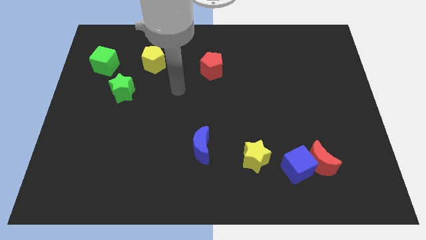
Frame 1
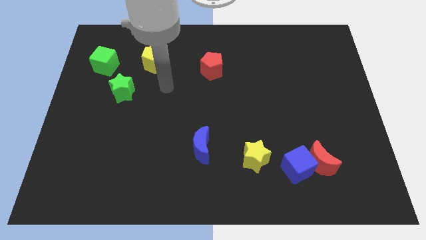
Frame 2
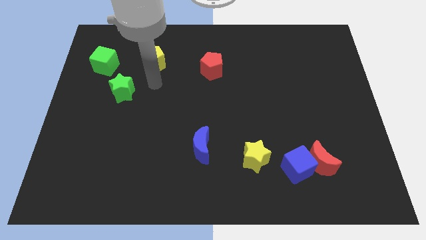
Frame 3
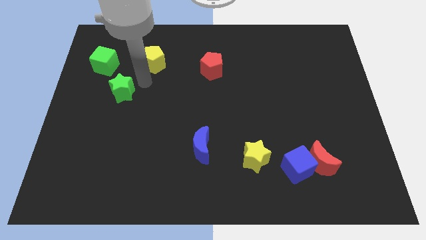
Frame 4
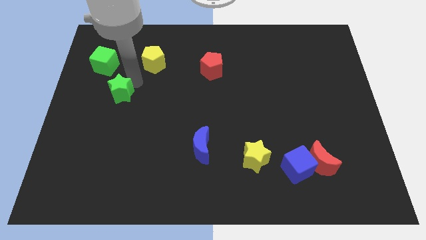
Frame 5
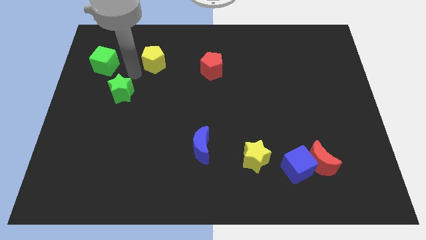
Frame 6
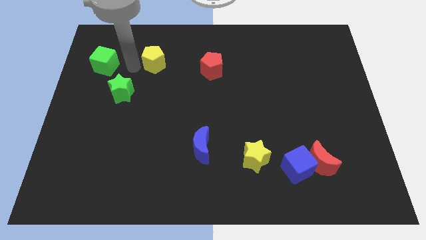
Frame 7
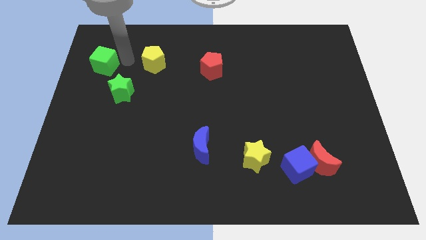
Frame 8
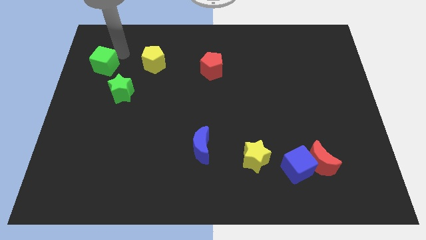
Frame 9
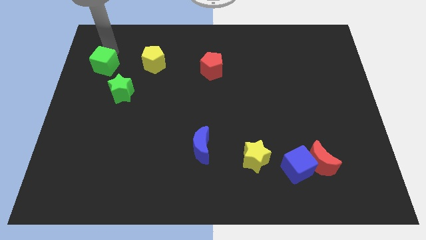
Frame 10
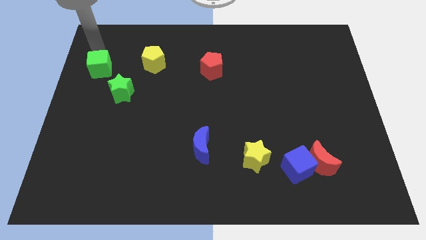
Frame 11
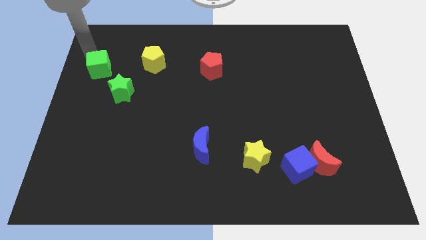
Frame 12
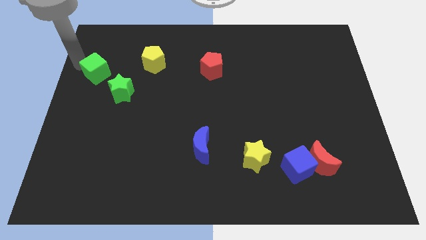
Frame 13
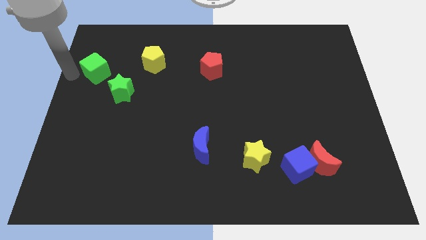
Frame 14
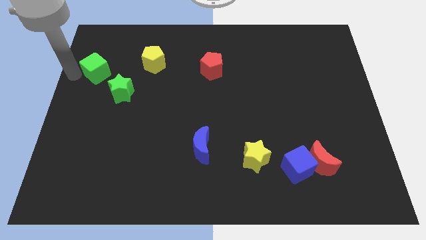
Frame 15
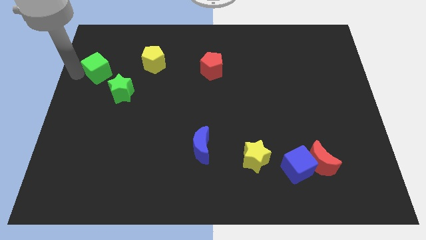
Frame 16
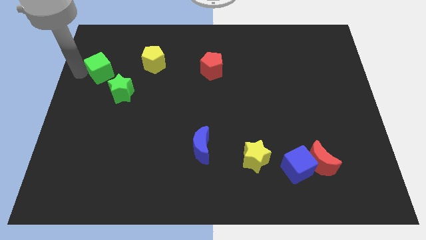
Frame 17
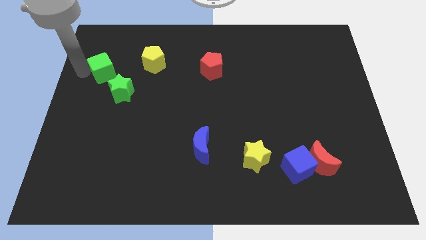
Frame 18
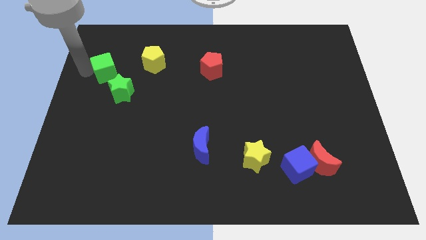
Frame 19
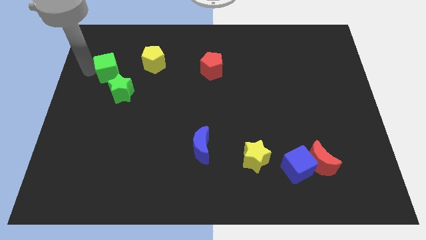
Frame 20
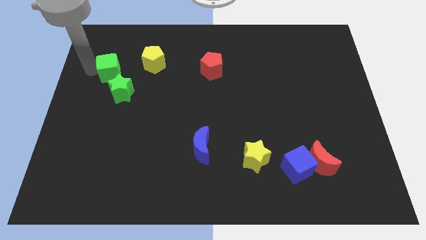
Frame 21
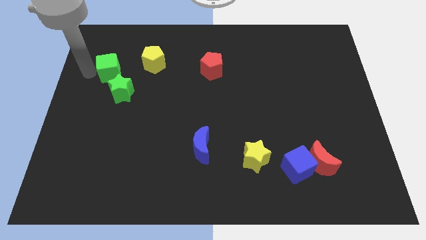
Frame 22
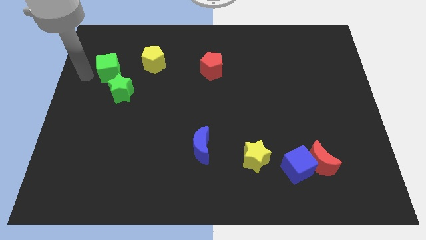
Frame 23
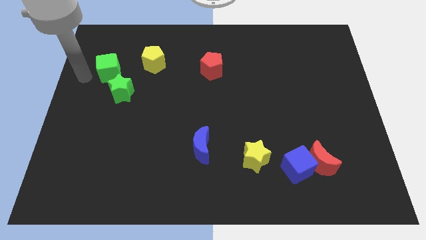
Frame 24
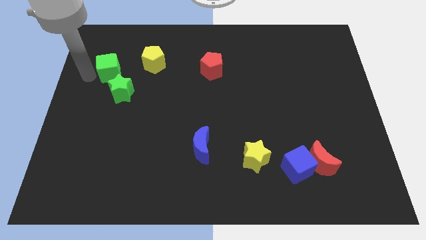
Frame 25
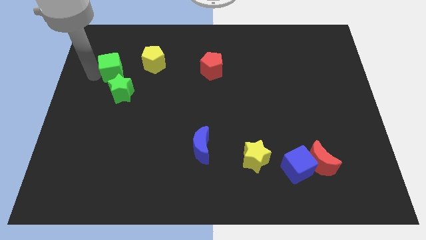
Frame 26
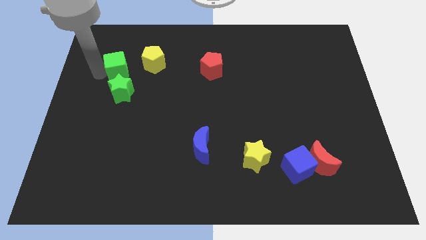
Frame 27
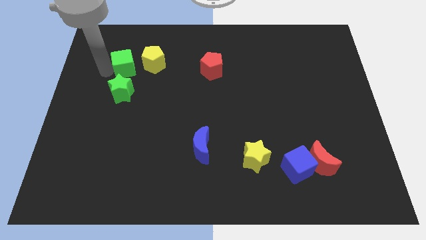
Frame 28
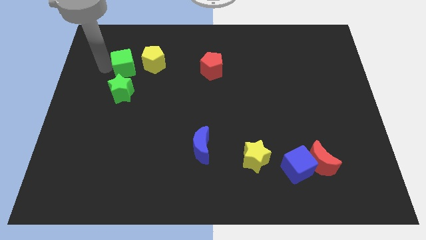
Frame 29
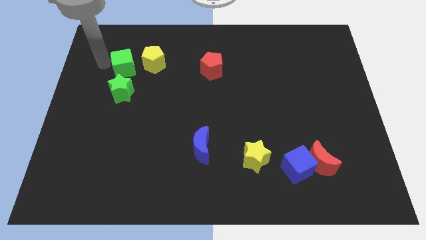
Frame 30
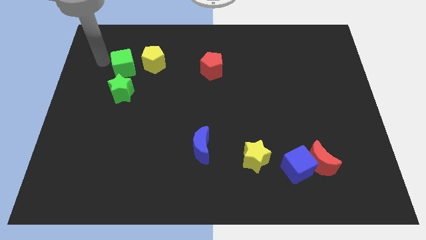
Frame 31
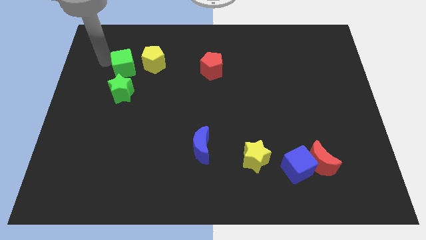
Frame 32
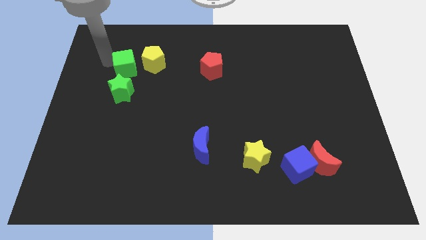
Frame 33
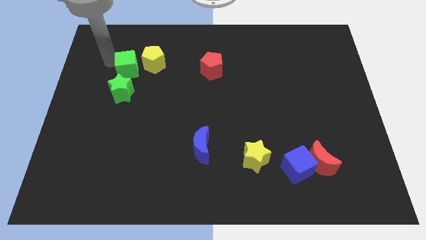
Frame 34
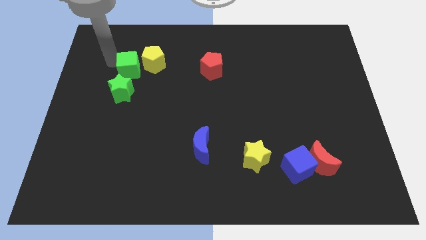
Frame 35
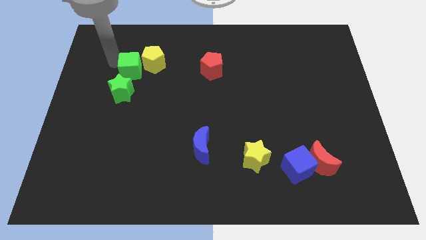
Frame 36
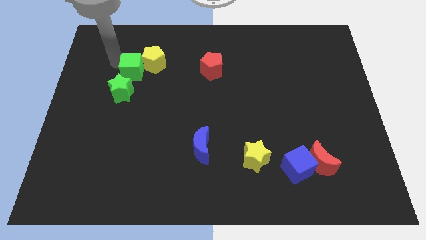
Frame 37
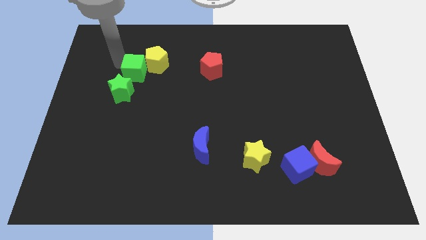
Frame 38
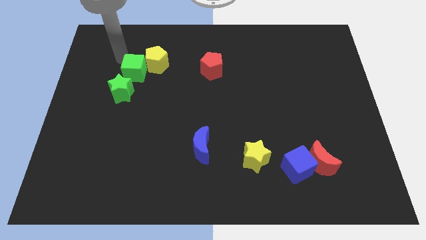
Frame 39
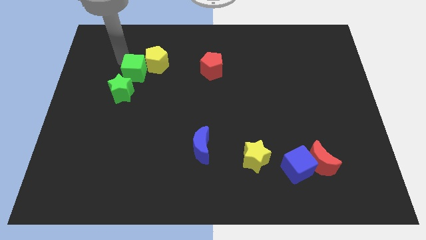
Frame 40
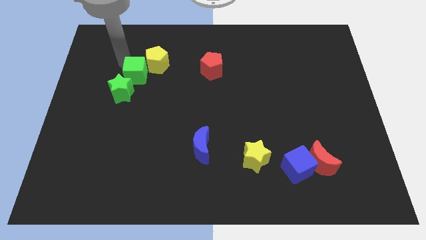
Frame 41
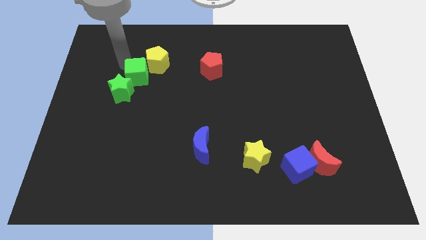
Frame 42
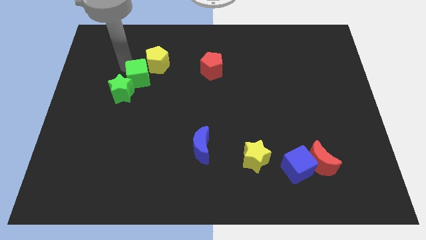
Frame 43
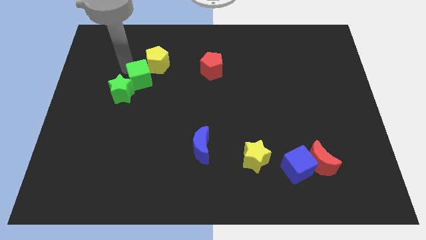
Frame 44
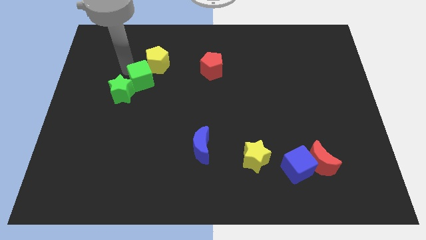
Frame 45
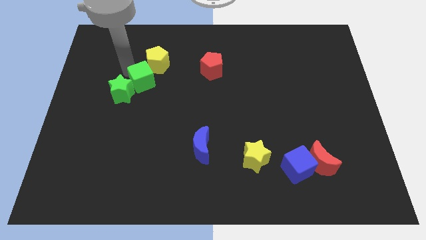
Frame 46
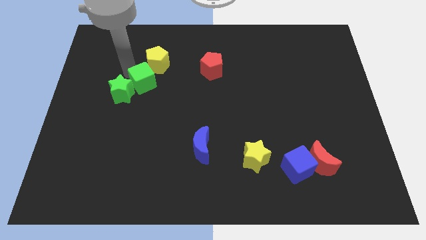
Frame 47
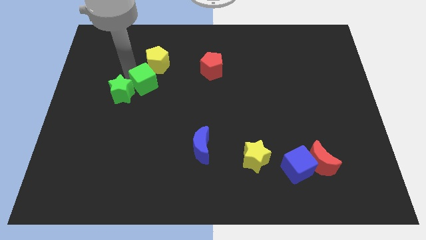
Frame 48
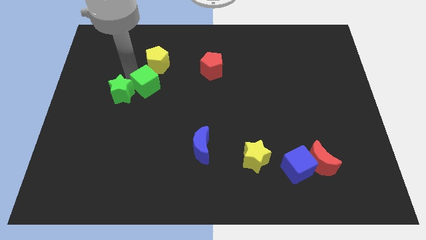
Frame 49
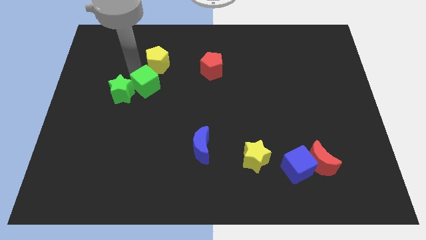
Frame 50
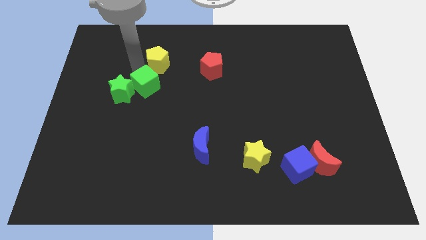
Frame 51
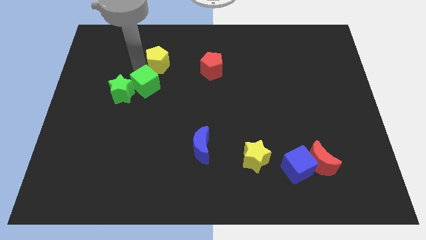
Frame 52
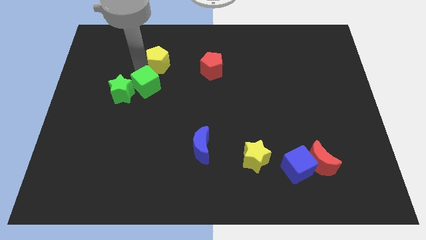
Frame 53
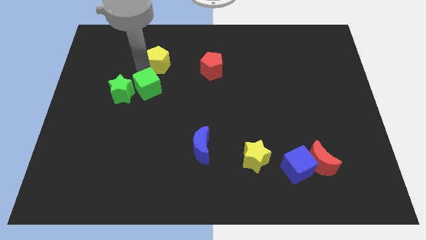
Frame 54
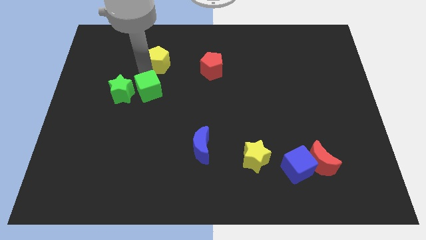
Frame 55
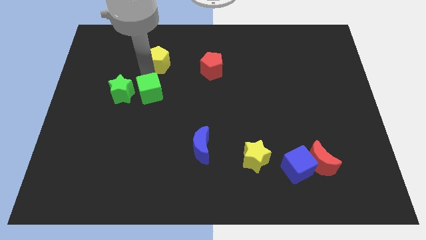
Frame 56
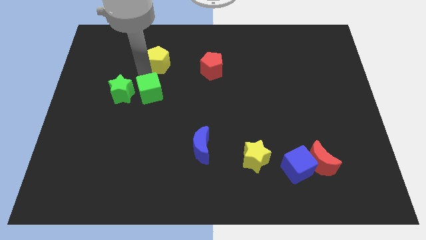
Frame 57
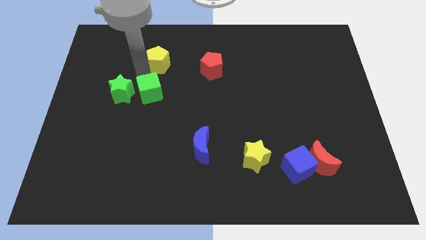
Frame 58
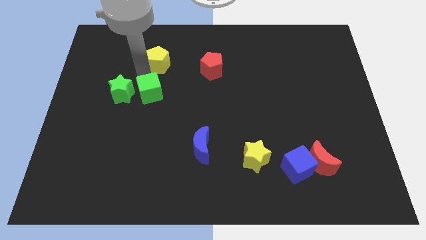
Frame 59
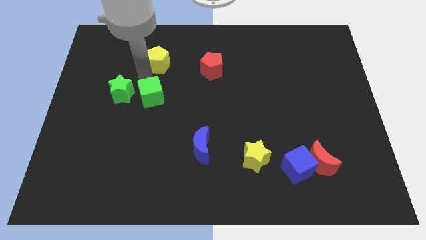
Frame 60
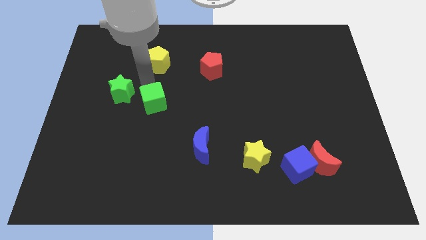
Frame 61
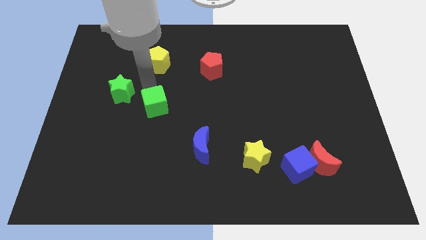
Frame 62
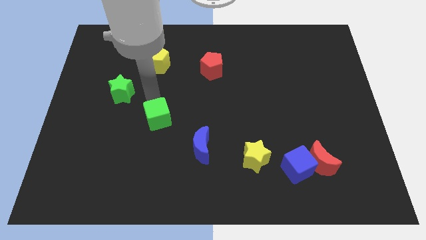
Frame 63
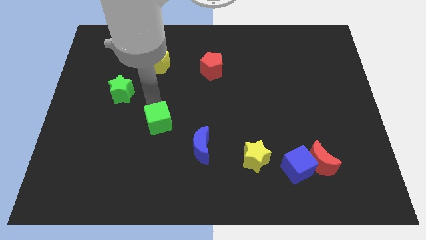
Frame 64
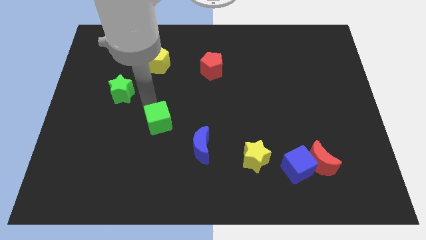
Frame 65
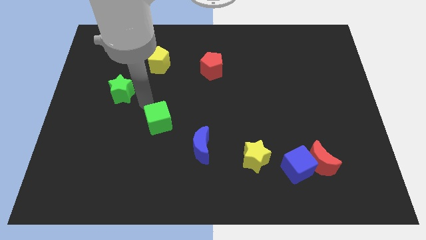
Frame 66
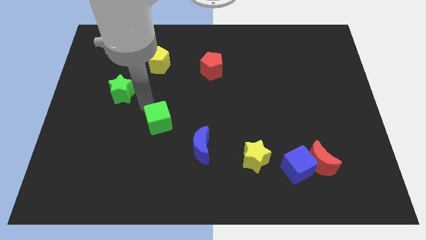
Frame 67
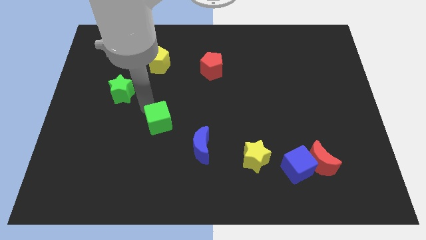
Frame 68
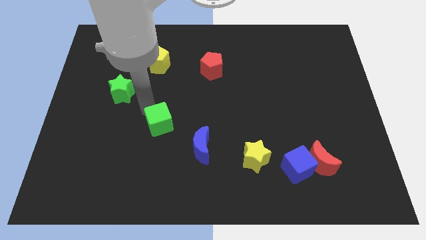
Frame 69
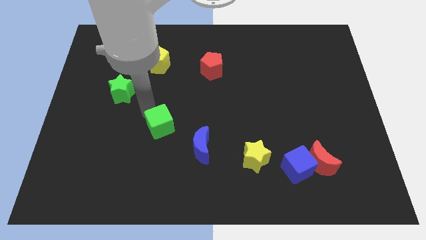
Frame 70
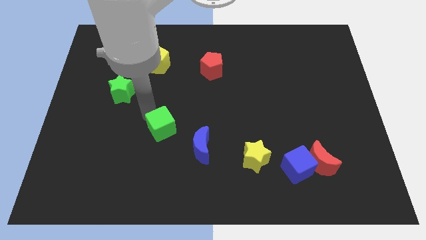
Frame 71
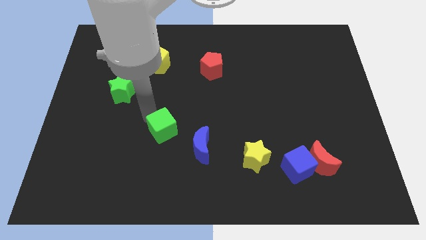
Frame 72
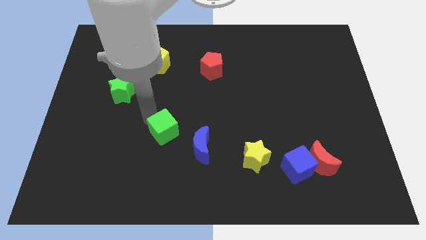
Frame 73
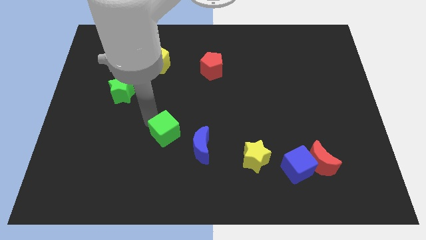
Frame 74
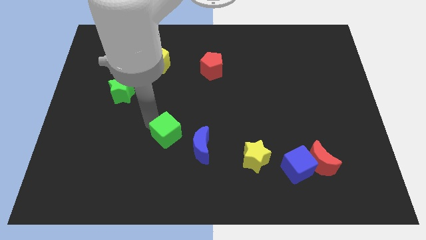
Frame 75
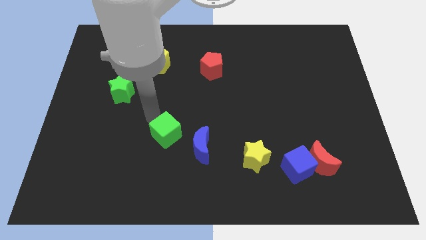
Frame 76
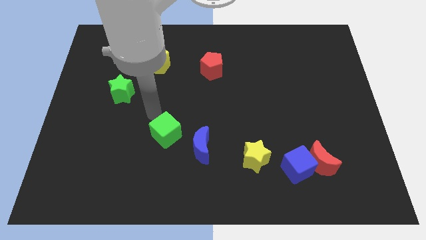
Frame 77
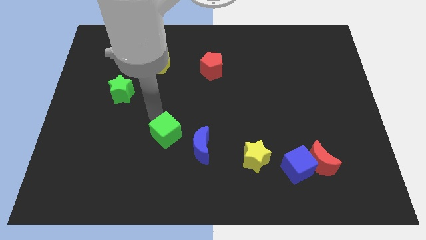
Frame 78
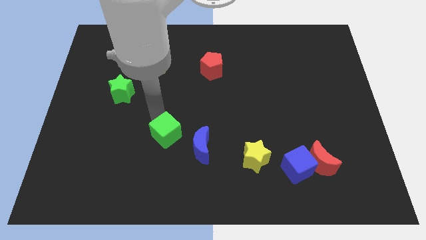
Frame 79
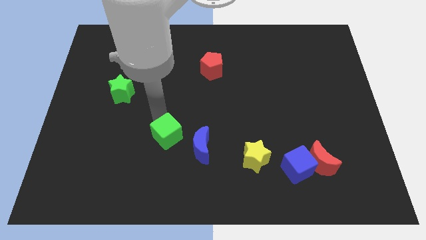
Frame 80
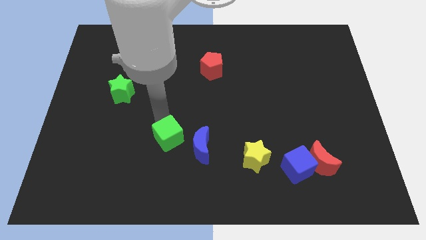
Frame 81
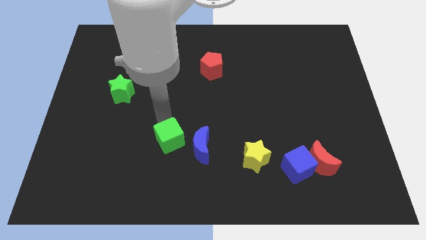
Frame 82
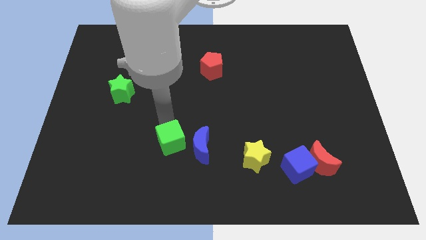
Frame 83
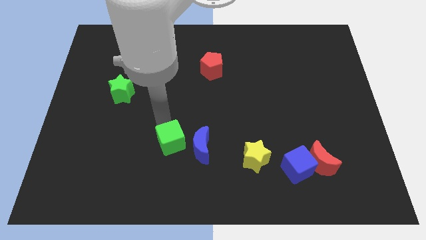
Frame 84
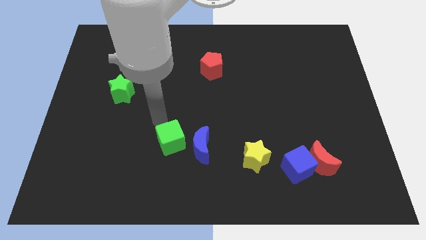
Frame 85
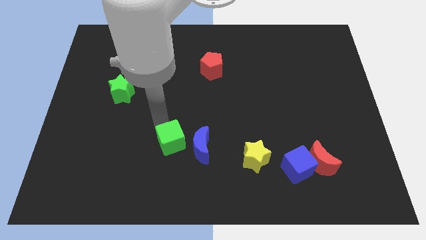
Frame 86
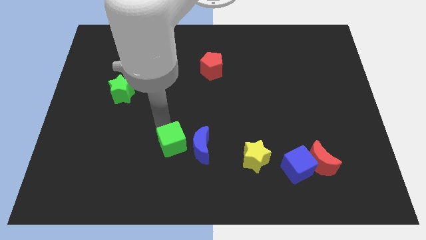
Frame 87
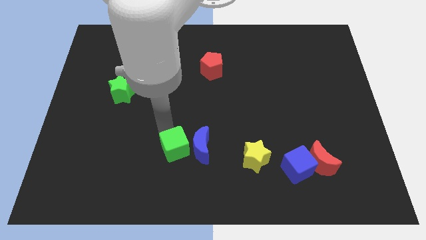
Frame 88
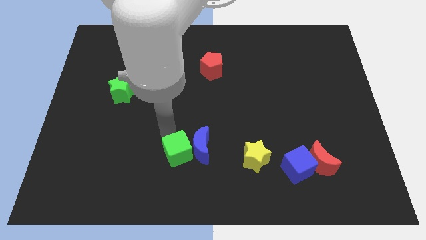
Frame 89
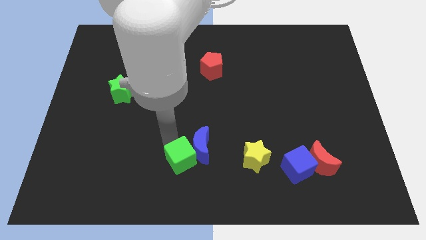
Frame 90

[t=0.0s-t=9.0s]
push the green cube to the left side of the yellow star
